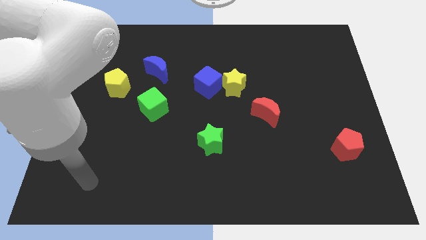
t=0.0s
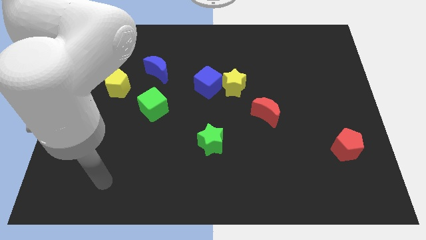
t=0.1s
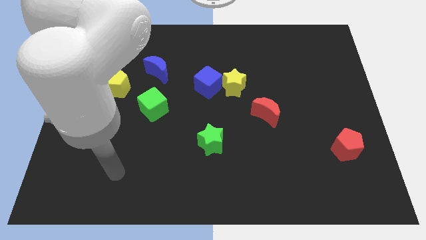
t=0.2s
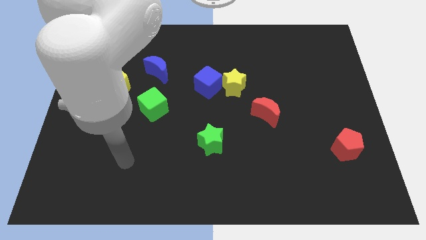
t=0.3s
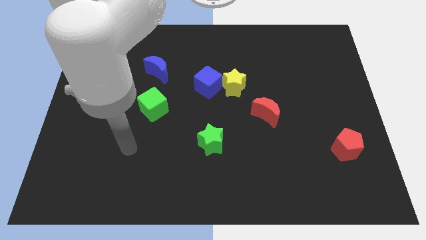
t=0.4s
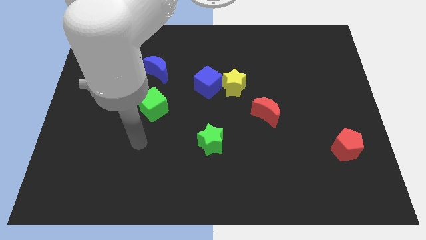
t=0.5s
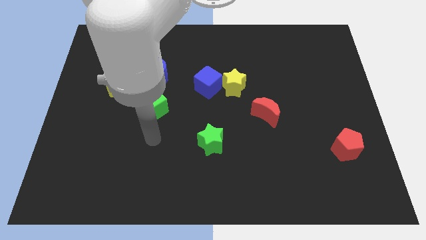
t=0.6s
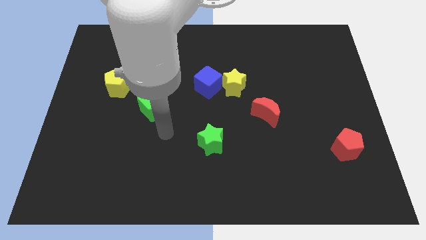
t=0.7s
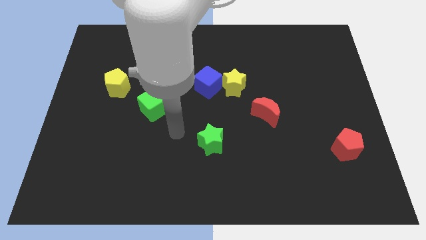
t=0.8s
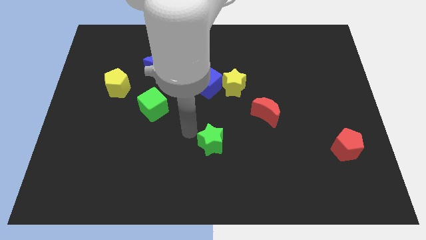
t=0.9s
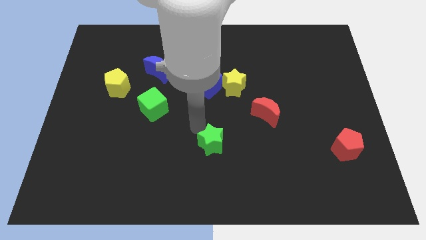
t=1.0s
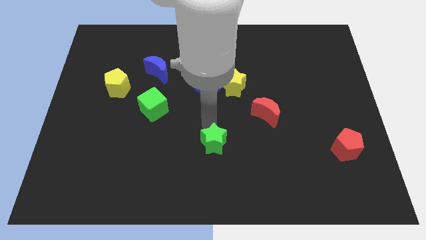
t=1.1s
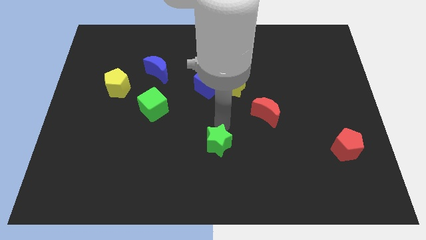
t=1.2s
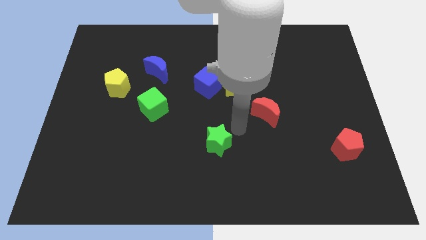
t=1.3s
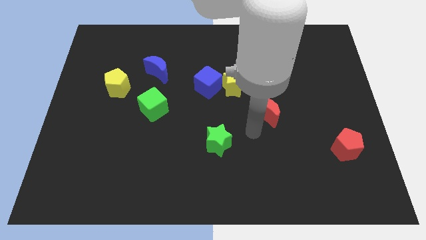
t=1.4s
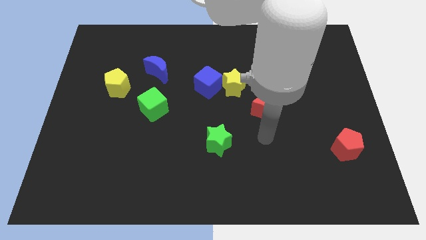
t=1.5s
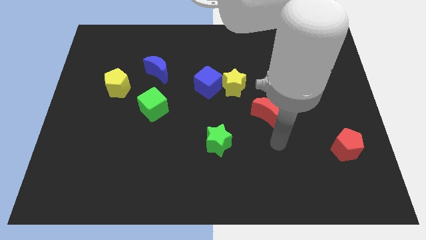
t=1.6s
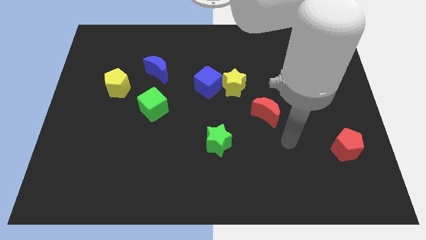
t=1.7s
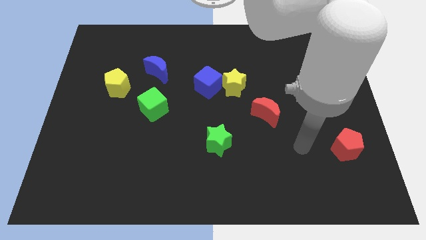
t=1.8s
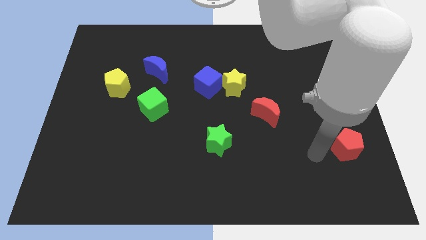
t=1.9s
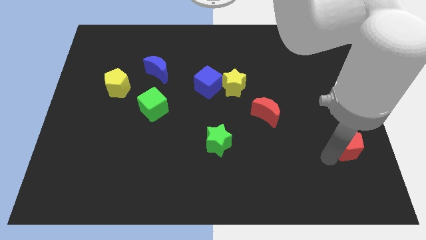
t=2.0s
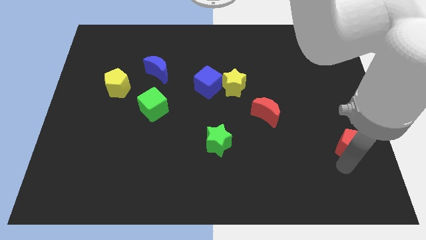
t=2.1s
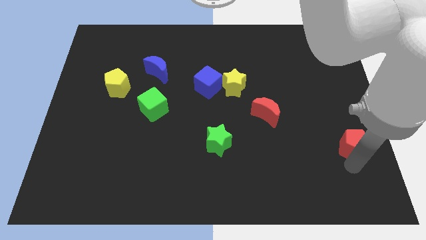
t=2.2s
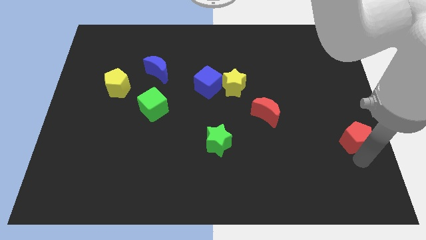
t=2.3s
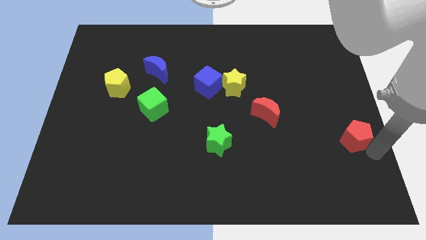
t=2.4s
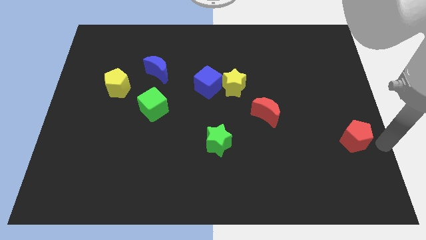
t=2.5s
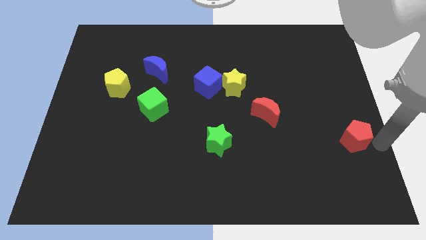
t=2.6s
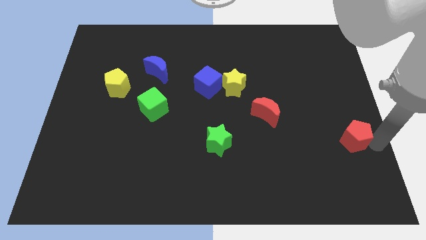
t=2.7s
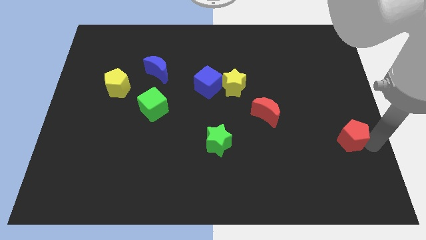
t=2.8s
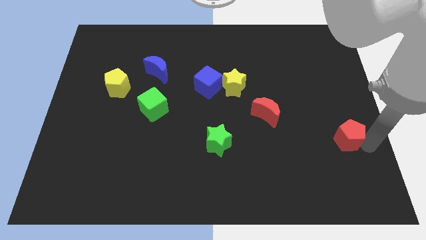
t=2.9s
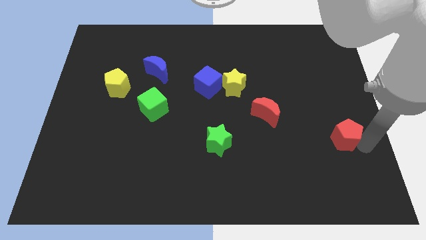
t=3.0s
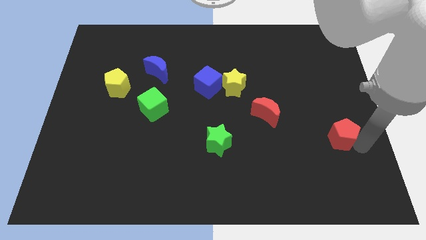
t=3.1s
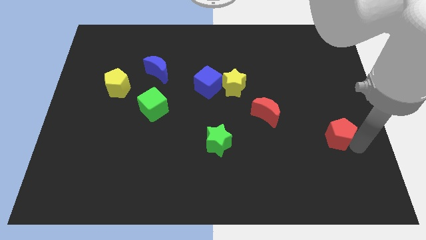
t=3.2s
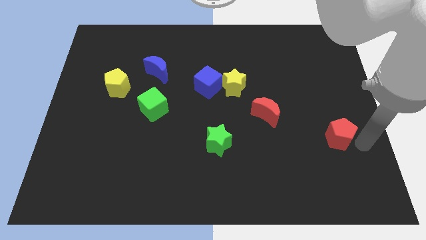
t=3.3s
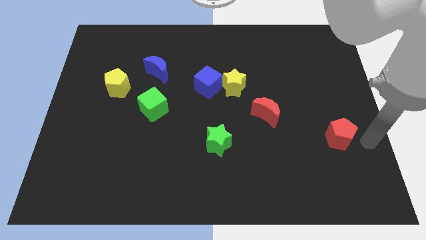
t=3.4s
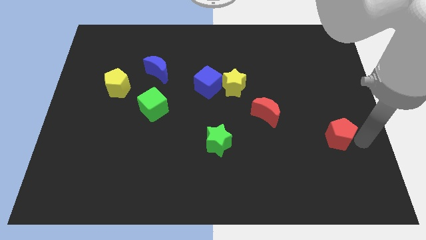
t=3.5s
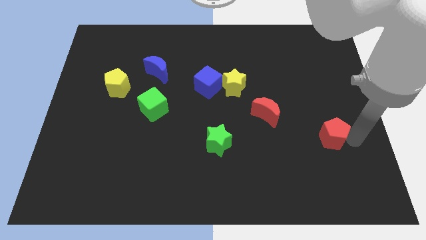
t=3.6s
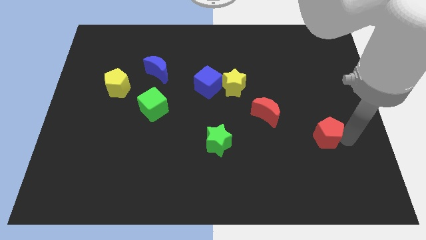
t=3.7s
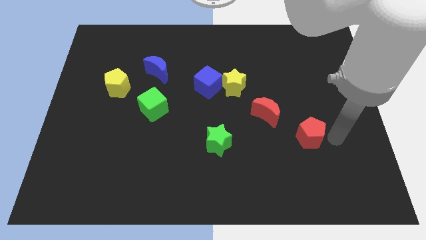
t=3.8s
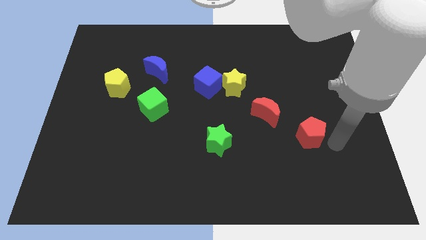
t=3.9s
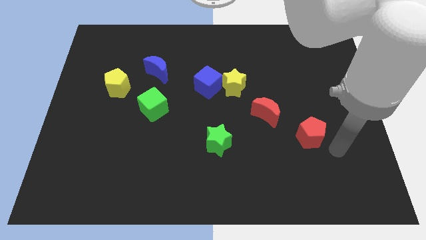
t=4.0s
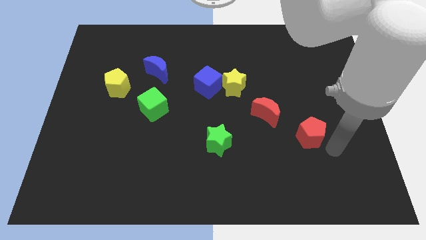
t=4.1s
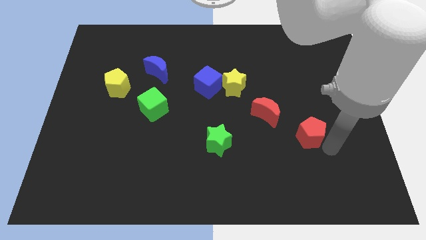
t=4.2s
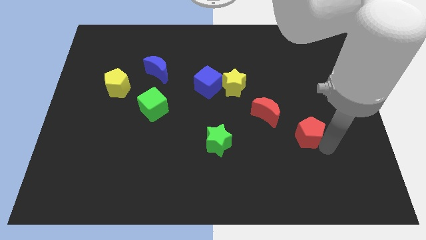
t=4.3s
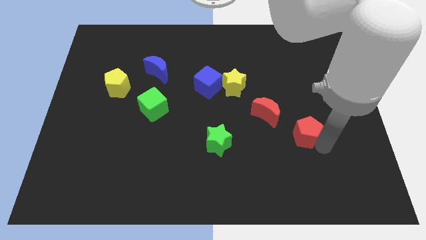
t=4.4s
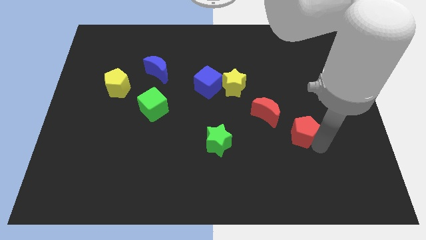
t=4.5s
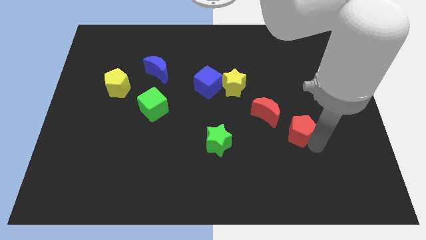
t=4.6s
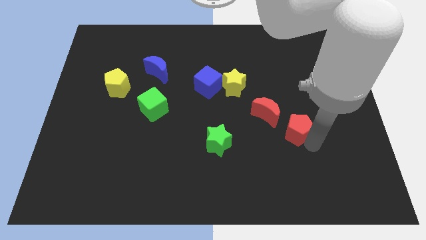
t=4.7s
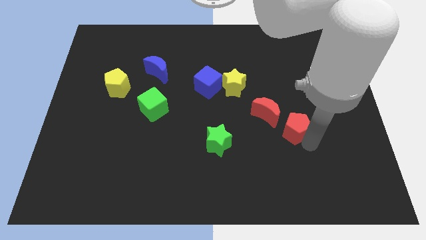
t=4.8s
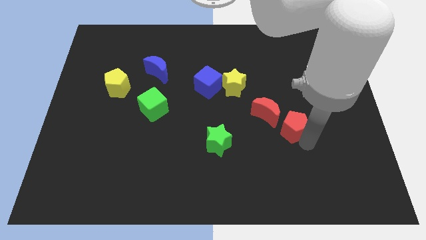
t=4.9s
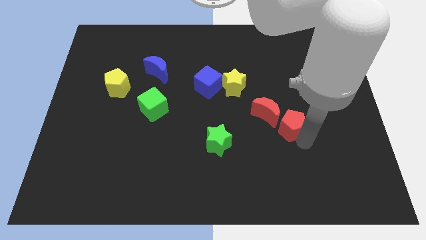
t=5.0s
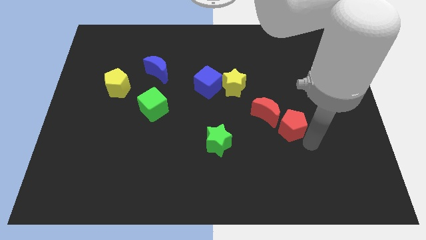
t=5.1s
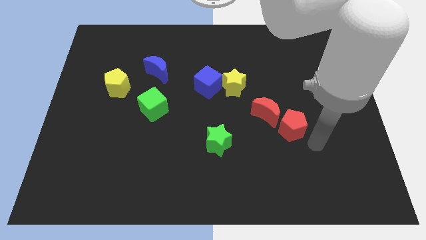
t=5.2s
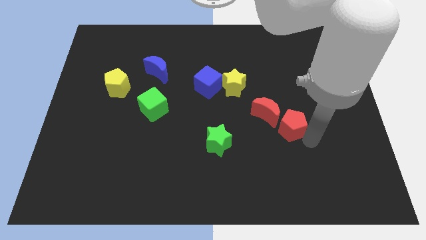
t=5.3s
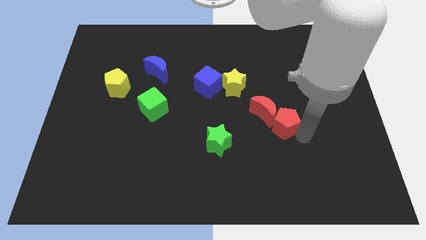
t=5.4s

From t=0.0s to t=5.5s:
push the red pentagon next to the red moon

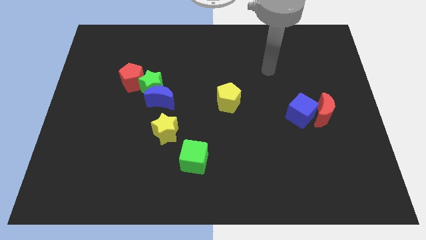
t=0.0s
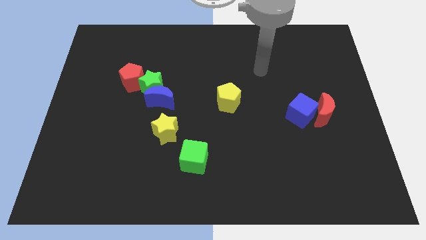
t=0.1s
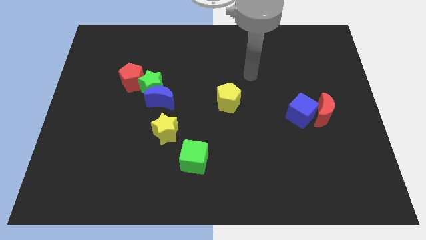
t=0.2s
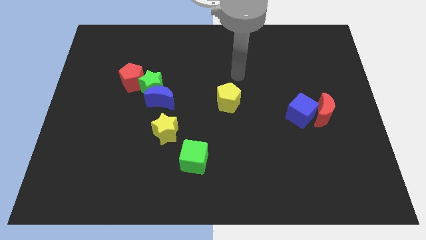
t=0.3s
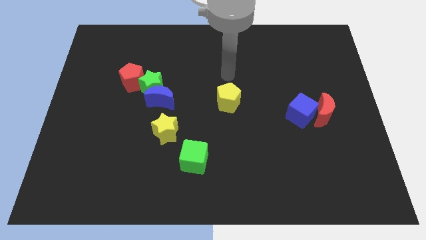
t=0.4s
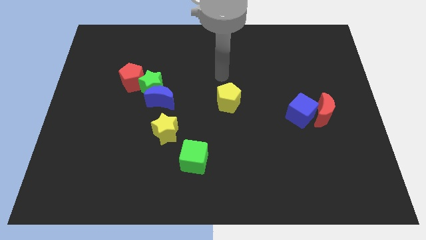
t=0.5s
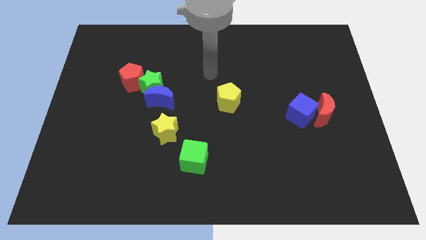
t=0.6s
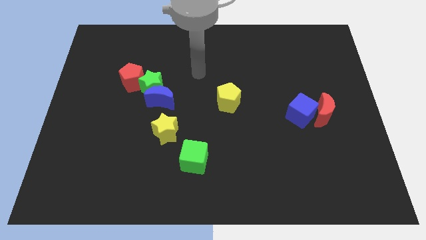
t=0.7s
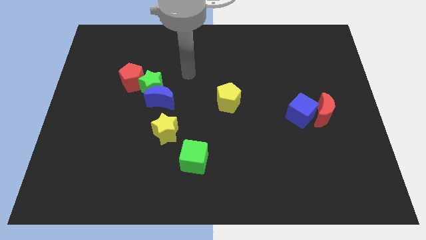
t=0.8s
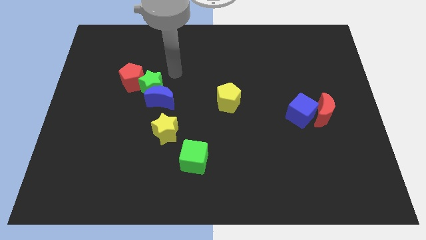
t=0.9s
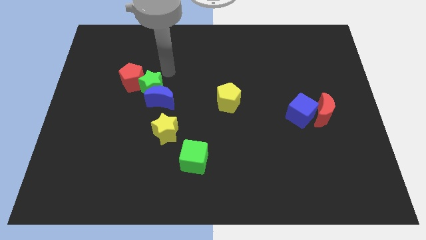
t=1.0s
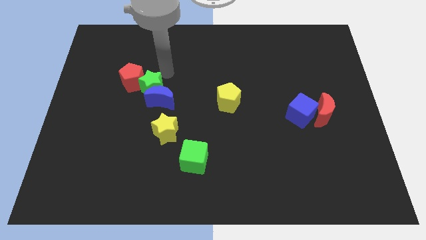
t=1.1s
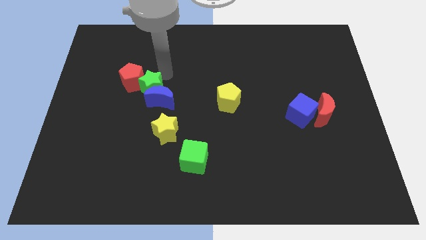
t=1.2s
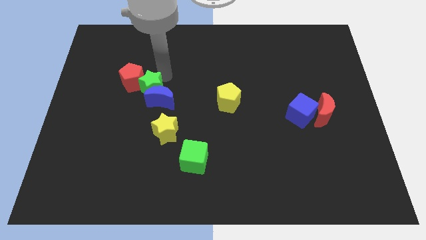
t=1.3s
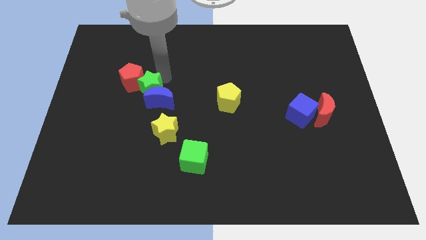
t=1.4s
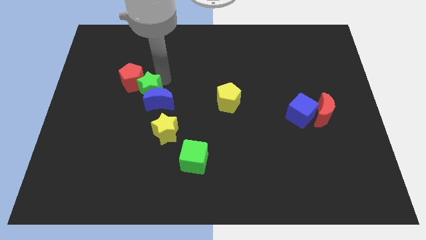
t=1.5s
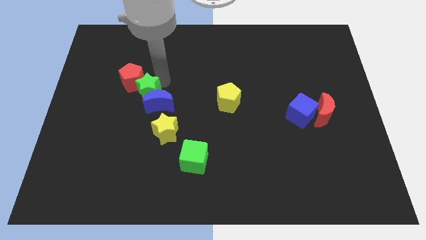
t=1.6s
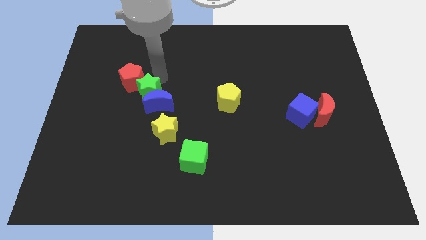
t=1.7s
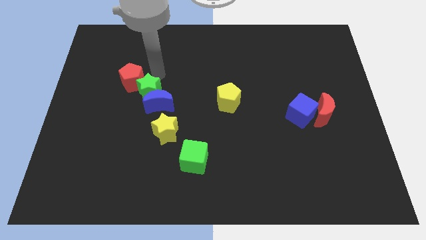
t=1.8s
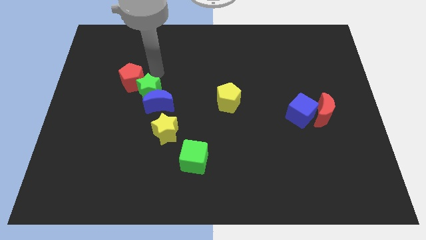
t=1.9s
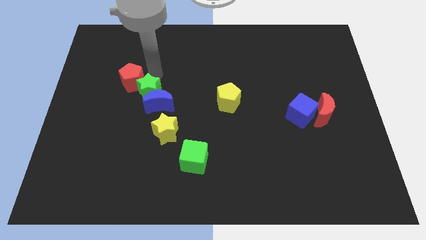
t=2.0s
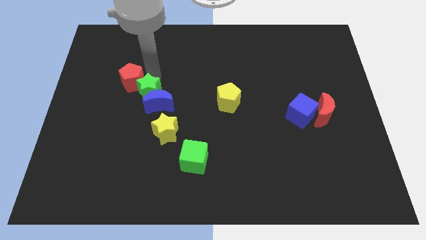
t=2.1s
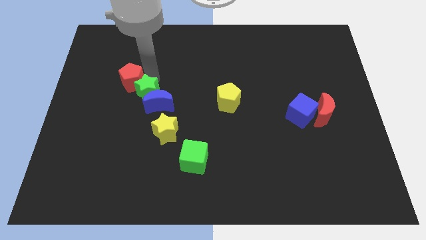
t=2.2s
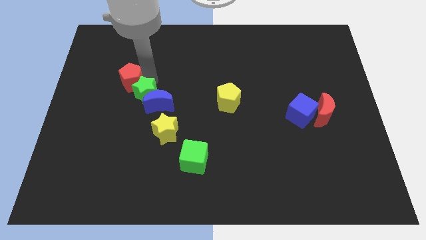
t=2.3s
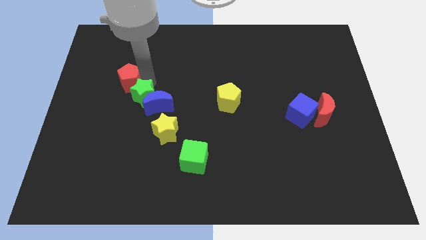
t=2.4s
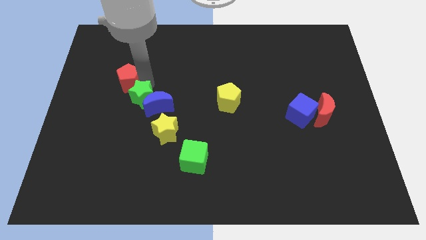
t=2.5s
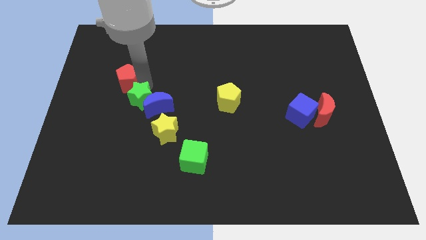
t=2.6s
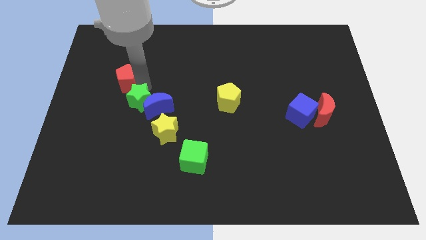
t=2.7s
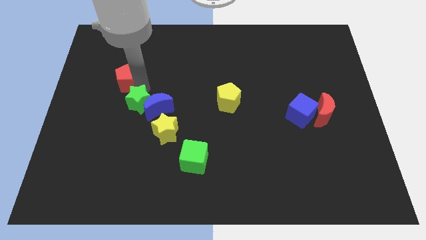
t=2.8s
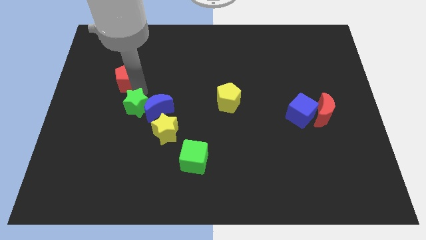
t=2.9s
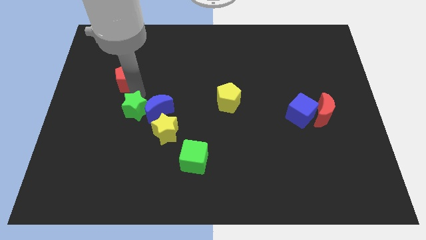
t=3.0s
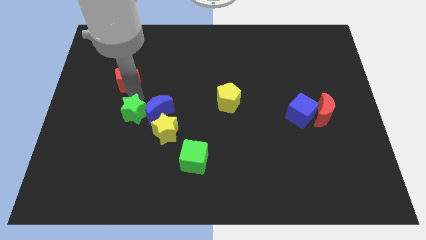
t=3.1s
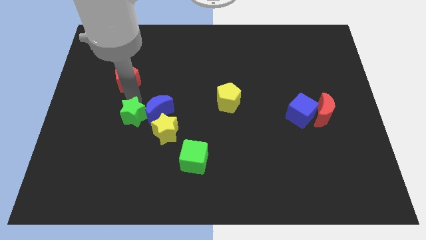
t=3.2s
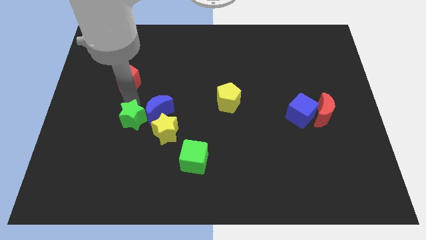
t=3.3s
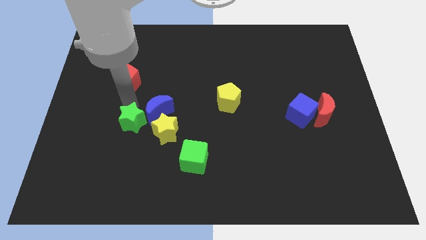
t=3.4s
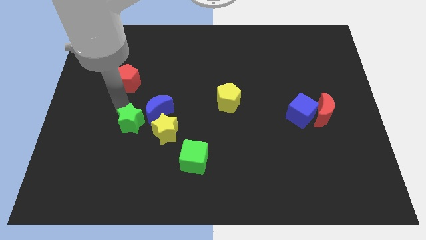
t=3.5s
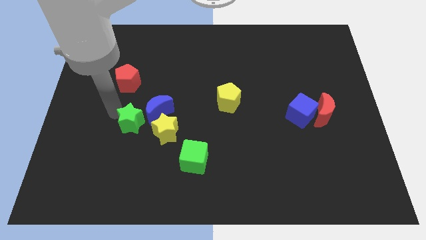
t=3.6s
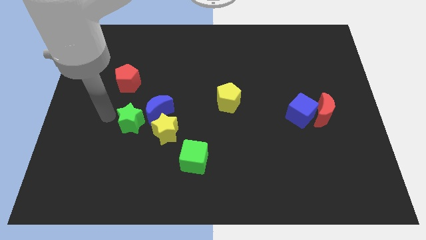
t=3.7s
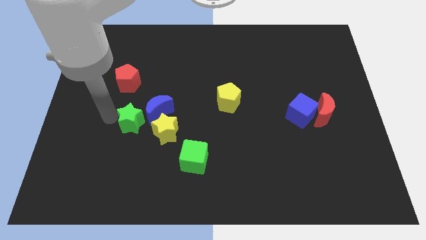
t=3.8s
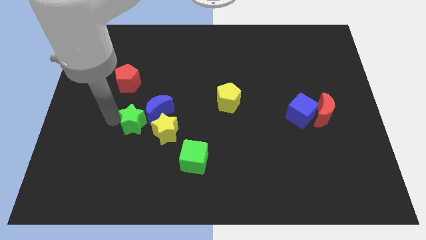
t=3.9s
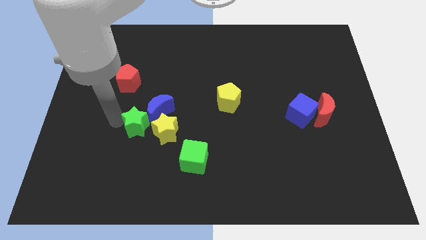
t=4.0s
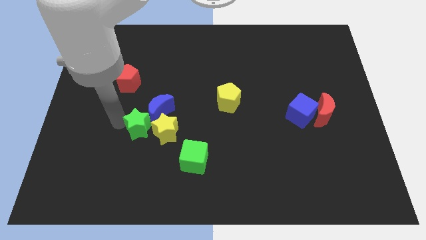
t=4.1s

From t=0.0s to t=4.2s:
put the green star to the yellow star
